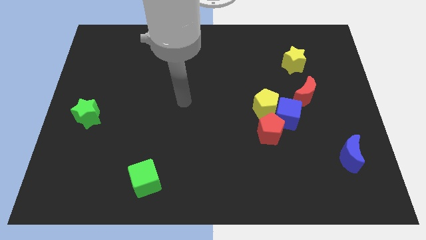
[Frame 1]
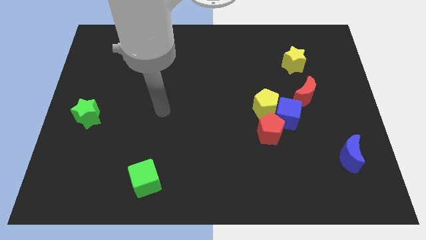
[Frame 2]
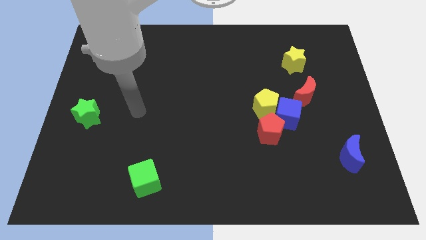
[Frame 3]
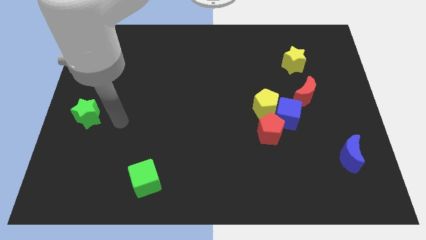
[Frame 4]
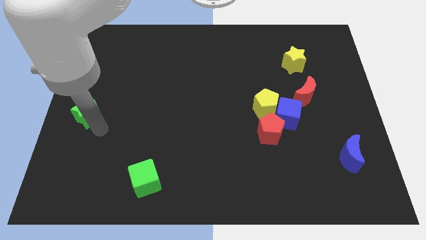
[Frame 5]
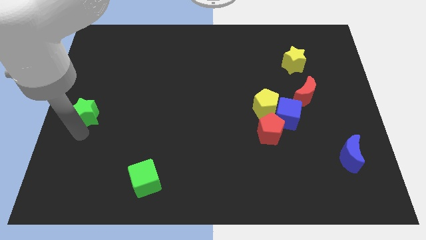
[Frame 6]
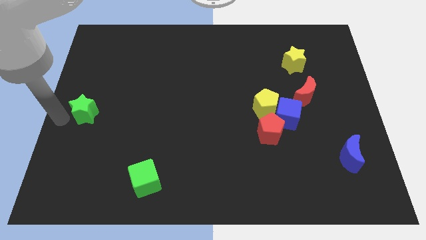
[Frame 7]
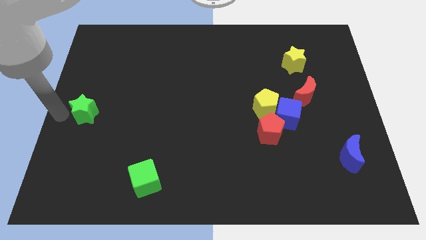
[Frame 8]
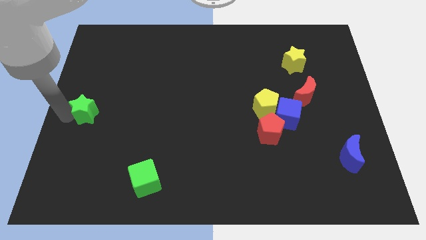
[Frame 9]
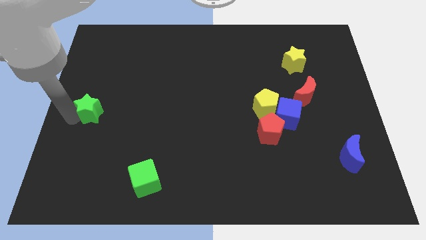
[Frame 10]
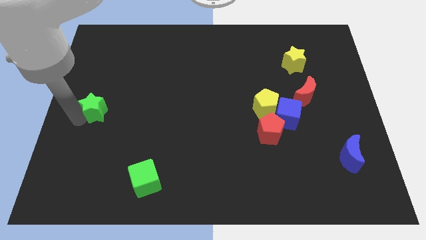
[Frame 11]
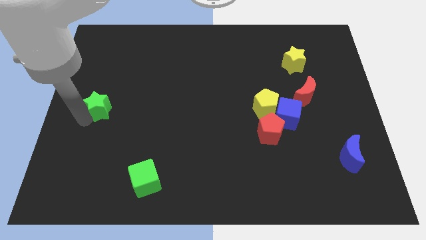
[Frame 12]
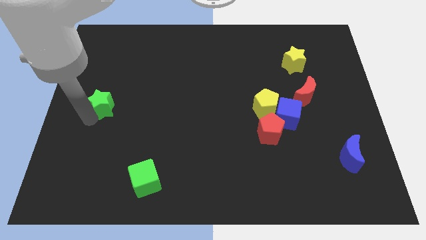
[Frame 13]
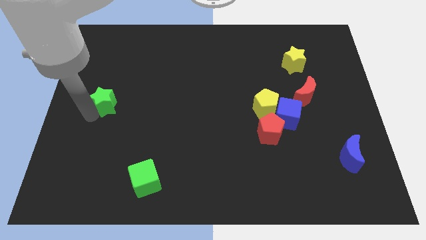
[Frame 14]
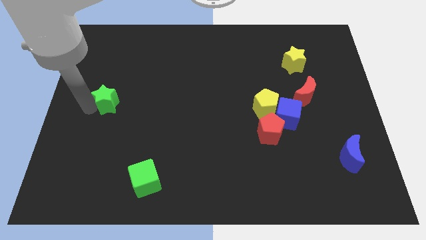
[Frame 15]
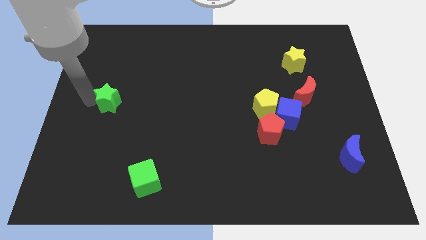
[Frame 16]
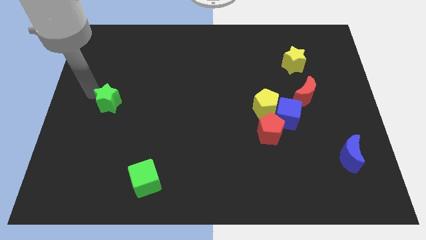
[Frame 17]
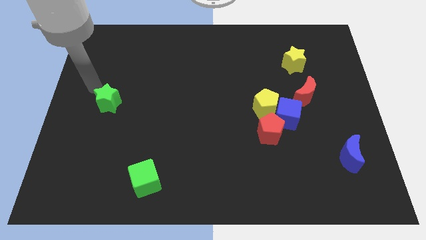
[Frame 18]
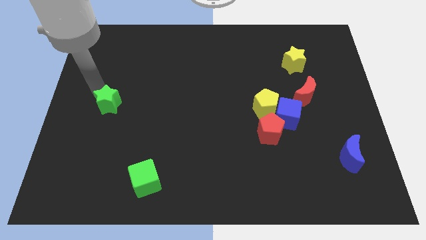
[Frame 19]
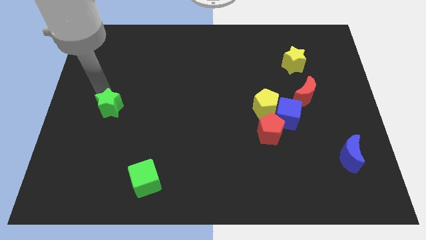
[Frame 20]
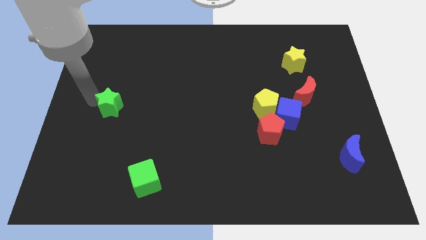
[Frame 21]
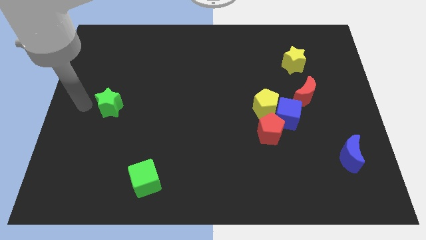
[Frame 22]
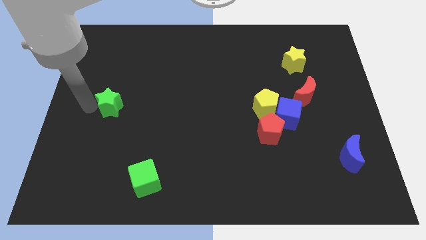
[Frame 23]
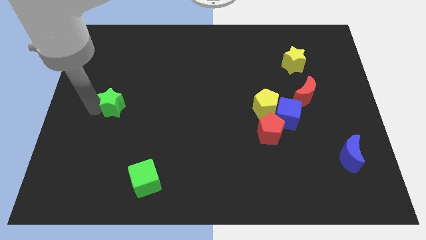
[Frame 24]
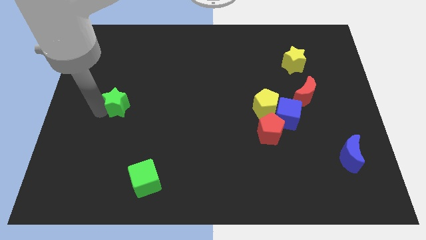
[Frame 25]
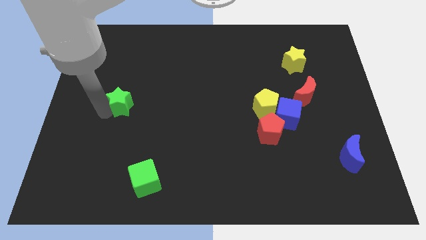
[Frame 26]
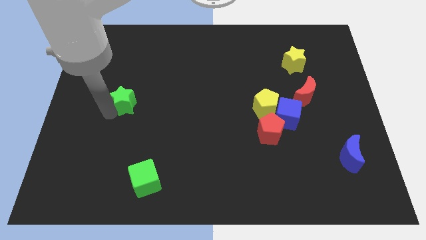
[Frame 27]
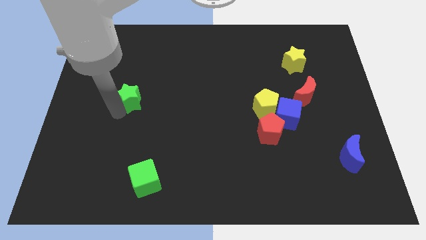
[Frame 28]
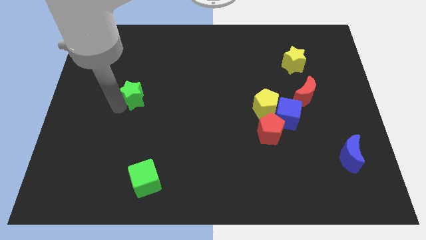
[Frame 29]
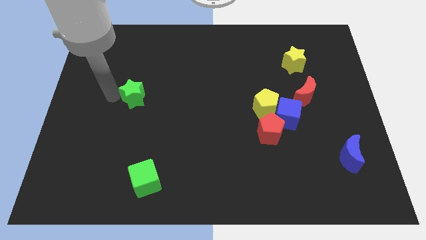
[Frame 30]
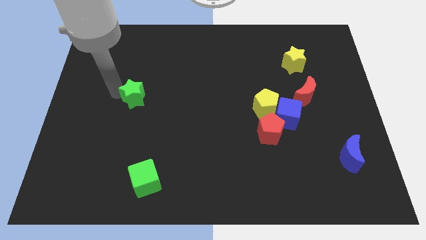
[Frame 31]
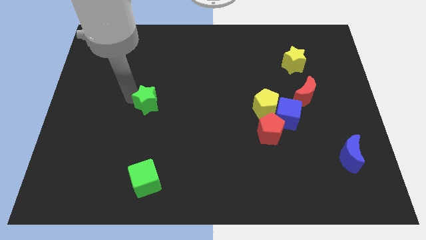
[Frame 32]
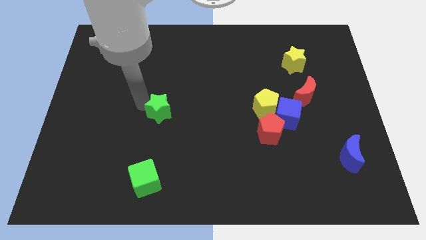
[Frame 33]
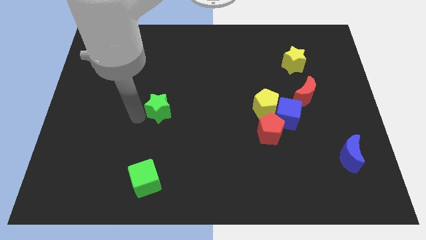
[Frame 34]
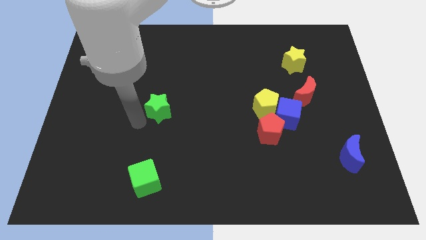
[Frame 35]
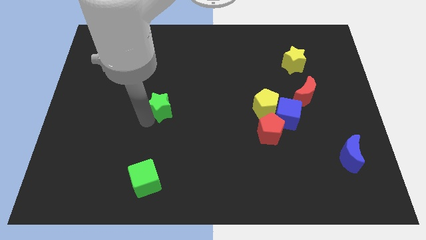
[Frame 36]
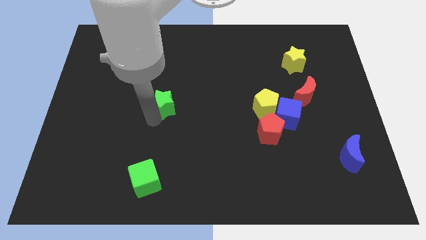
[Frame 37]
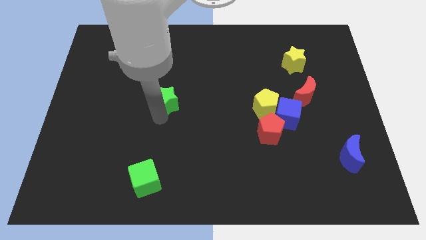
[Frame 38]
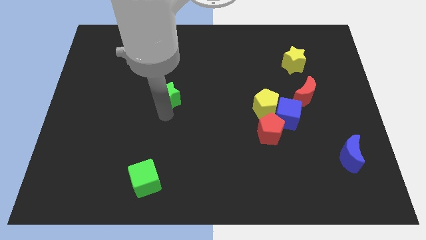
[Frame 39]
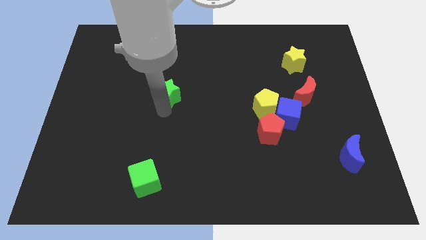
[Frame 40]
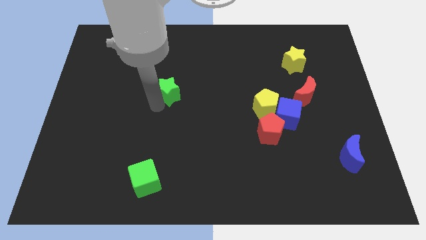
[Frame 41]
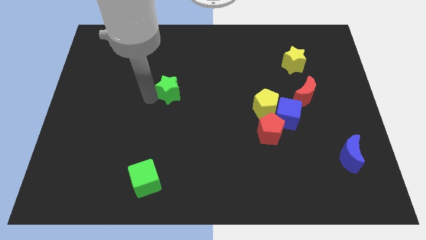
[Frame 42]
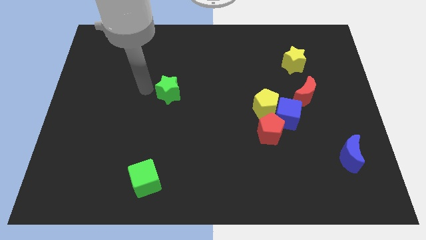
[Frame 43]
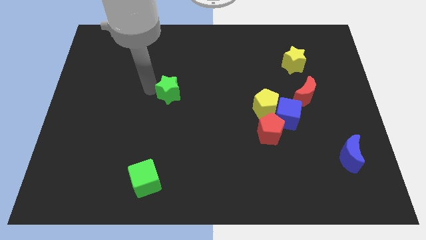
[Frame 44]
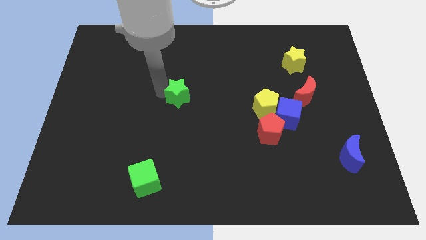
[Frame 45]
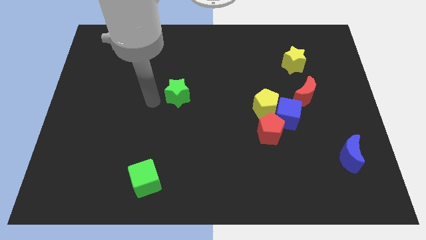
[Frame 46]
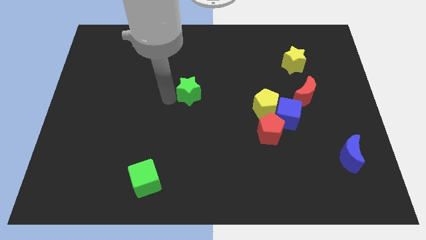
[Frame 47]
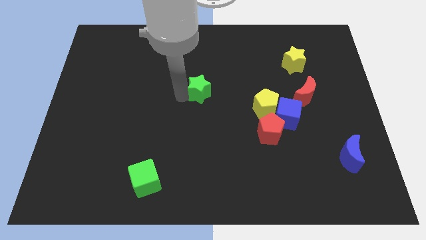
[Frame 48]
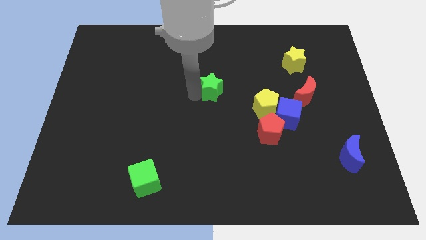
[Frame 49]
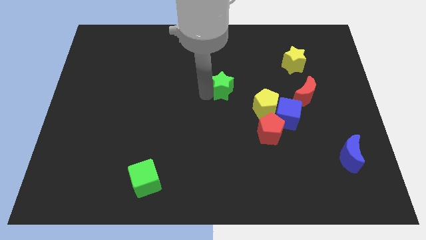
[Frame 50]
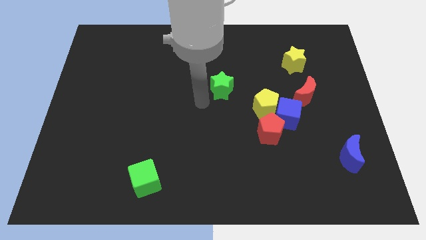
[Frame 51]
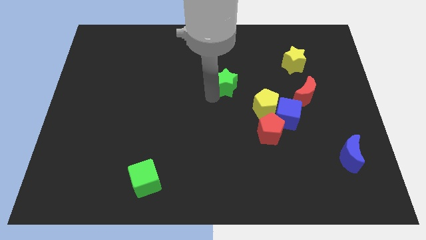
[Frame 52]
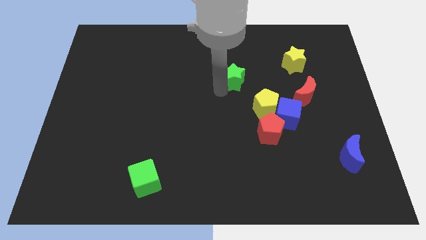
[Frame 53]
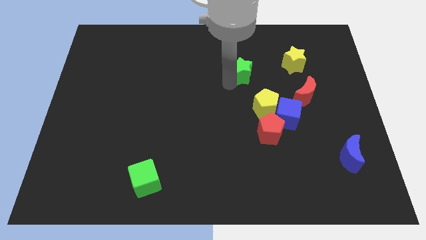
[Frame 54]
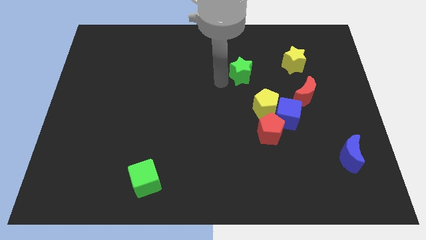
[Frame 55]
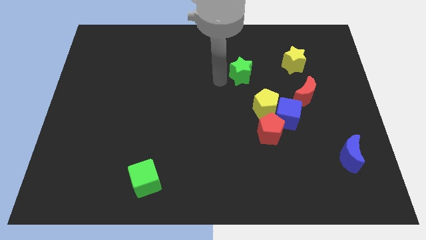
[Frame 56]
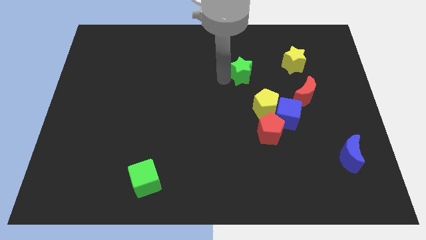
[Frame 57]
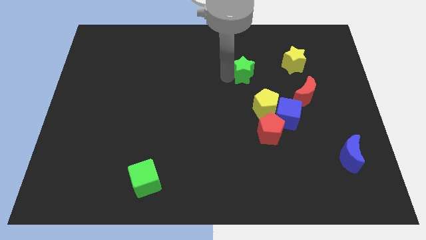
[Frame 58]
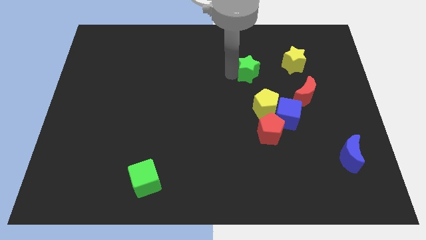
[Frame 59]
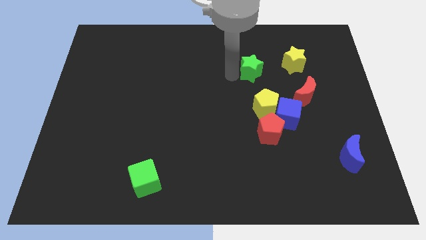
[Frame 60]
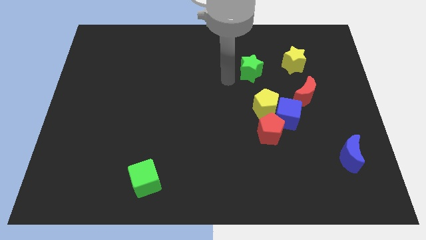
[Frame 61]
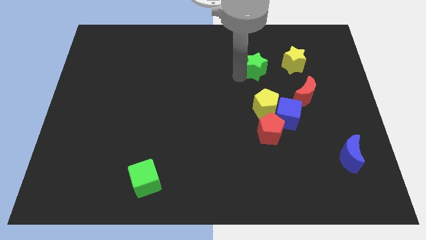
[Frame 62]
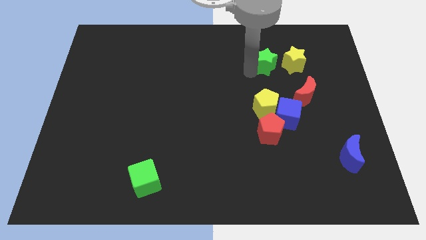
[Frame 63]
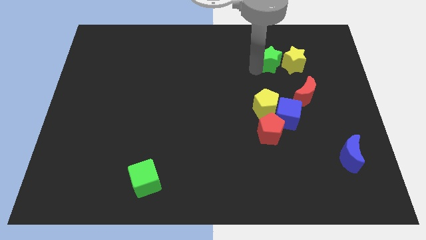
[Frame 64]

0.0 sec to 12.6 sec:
push the green star to the yellow star

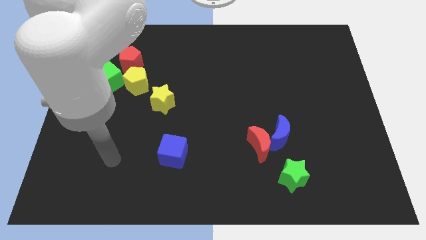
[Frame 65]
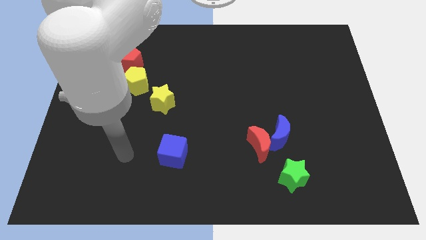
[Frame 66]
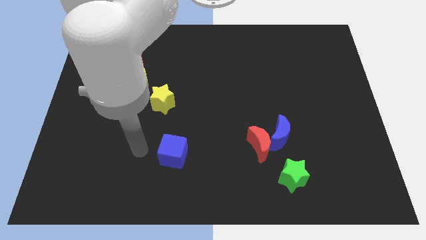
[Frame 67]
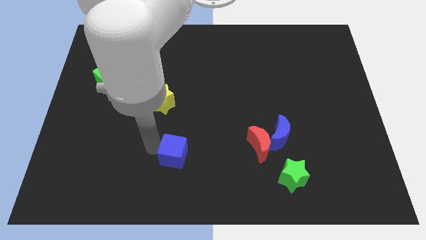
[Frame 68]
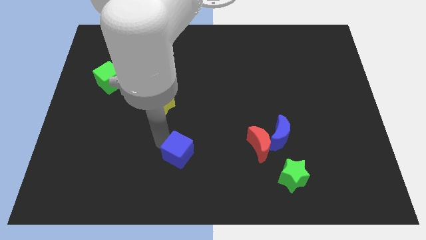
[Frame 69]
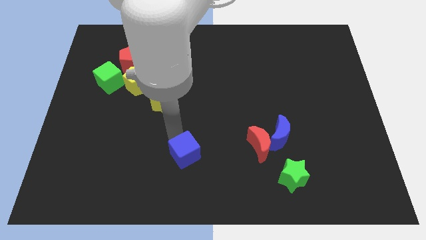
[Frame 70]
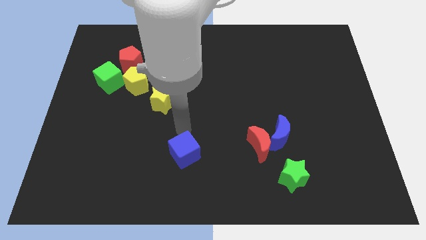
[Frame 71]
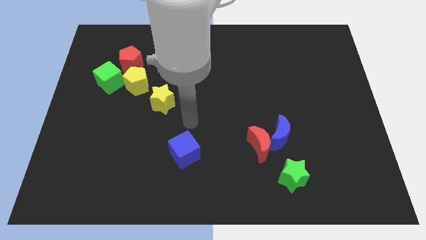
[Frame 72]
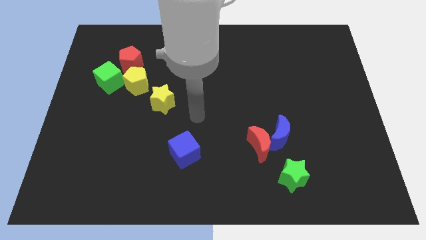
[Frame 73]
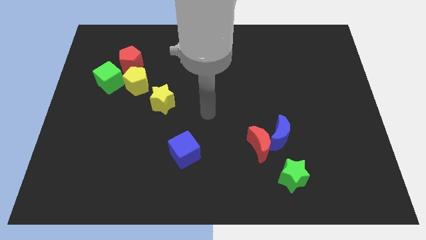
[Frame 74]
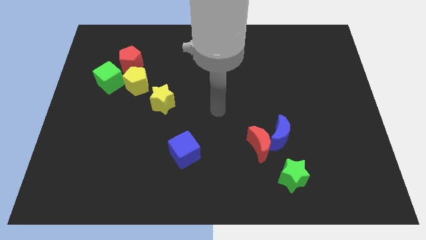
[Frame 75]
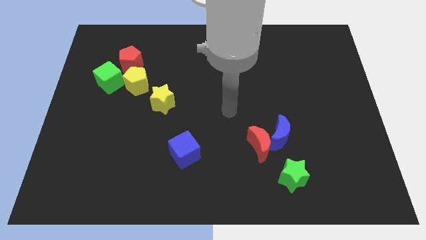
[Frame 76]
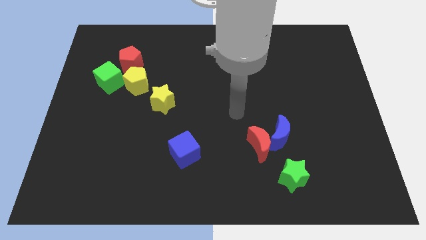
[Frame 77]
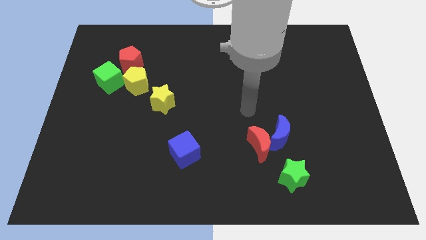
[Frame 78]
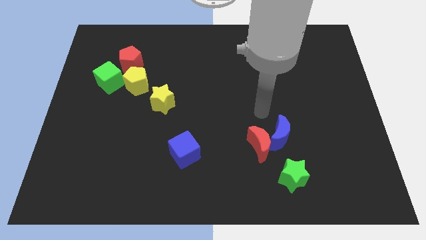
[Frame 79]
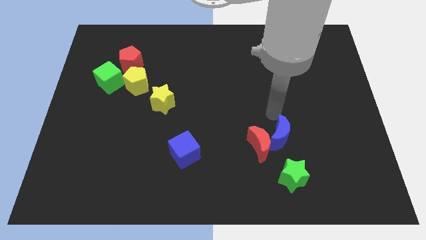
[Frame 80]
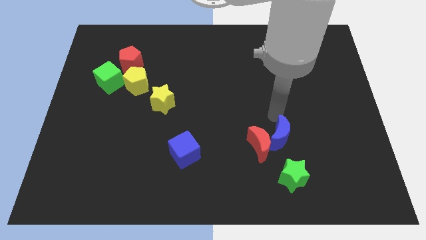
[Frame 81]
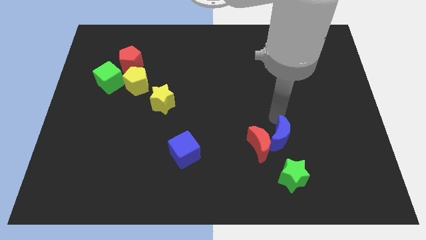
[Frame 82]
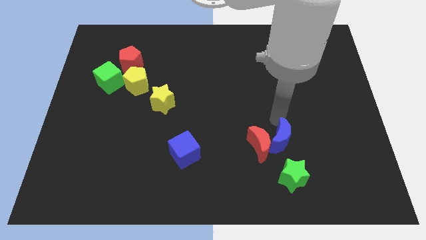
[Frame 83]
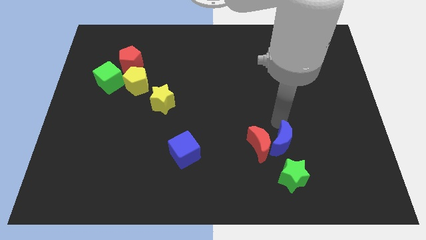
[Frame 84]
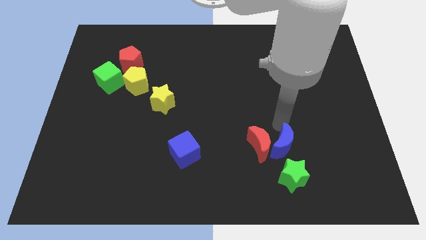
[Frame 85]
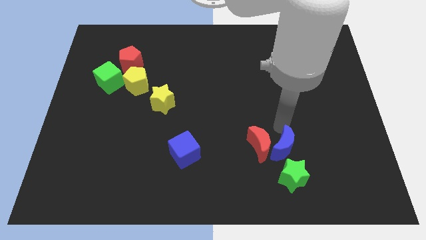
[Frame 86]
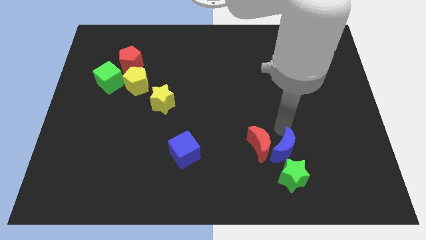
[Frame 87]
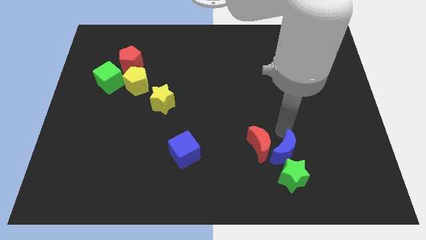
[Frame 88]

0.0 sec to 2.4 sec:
put the blue moon towards the green star
